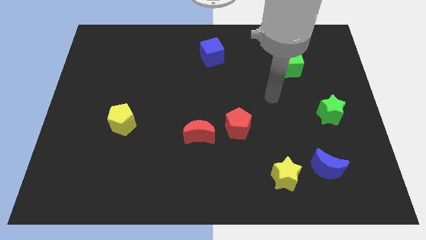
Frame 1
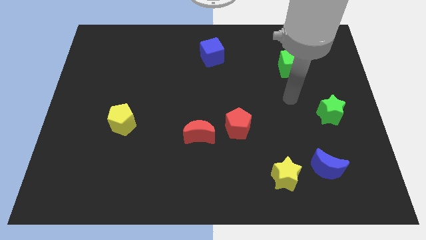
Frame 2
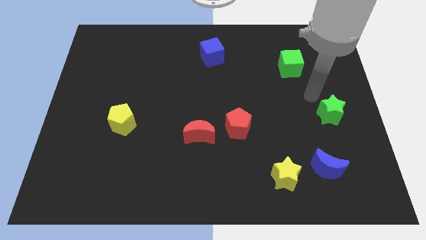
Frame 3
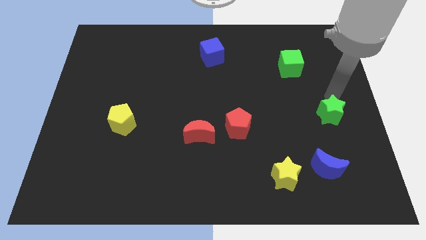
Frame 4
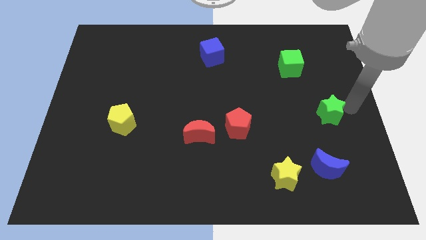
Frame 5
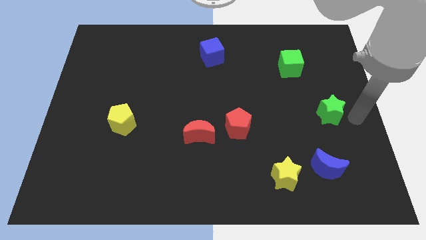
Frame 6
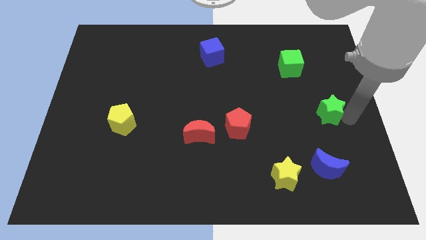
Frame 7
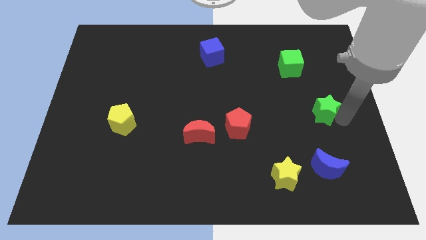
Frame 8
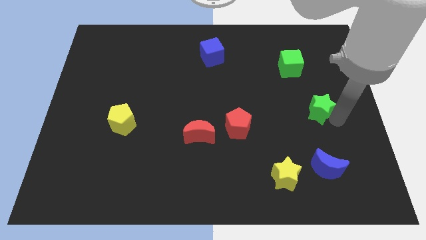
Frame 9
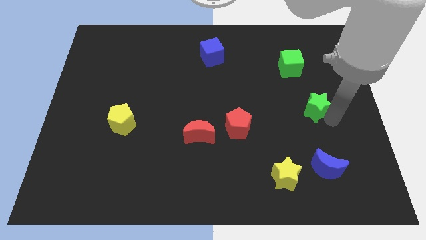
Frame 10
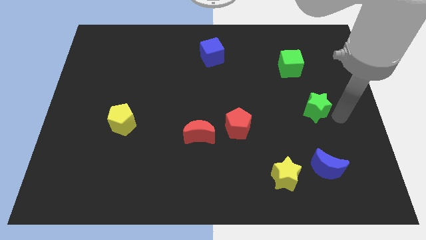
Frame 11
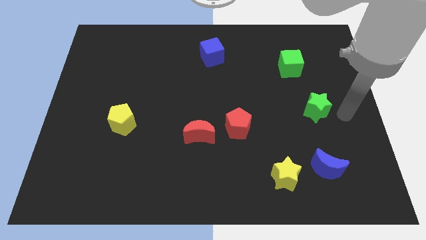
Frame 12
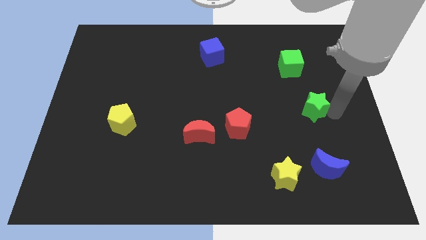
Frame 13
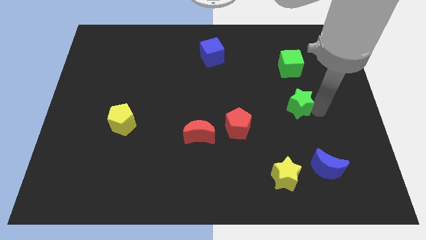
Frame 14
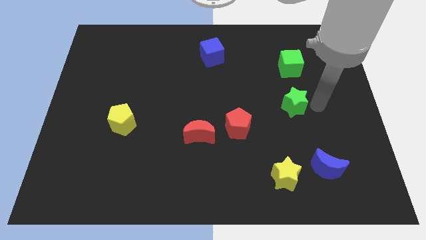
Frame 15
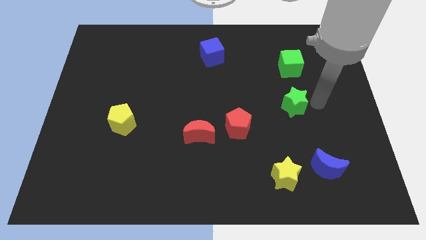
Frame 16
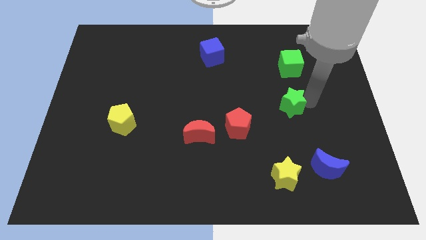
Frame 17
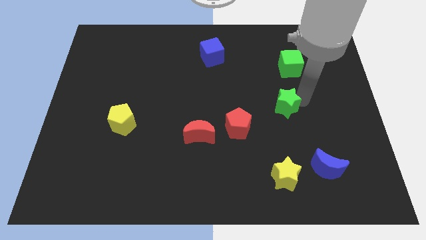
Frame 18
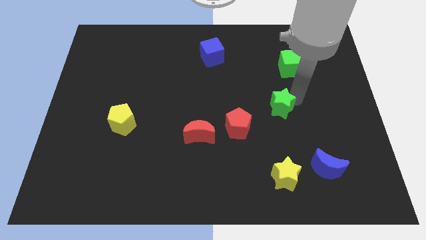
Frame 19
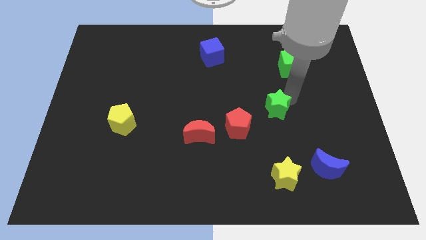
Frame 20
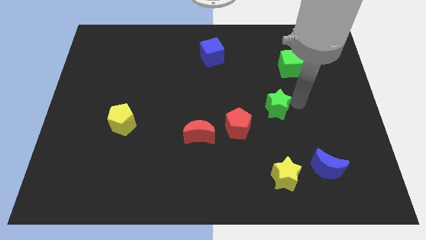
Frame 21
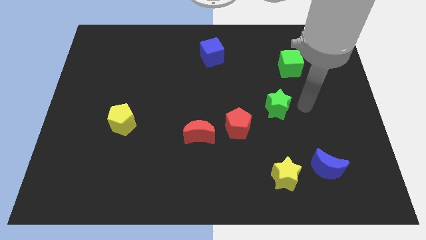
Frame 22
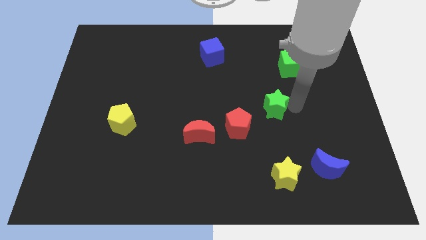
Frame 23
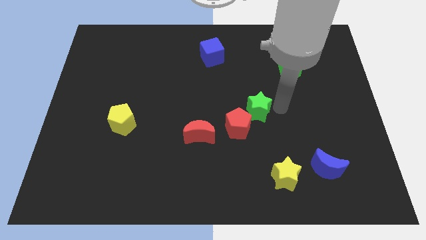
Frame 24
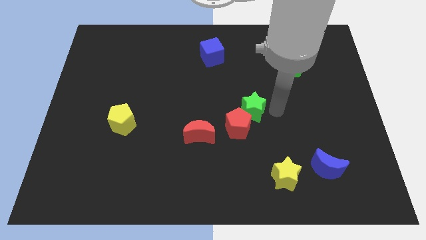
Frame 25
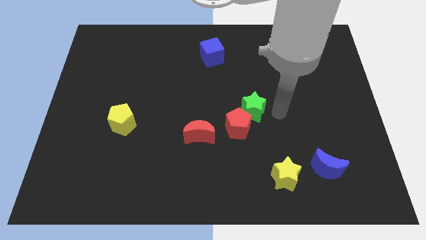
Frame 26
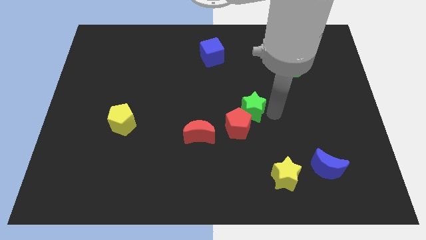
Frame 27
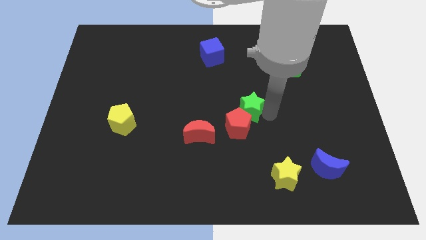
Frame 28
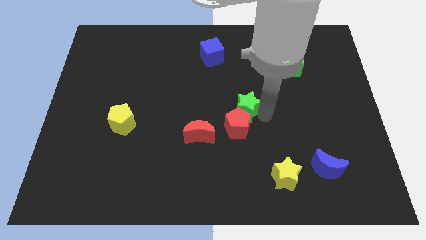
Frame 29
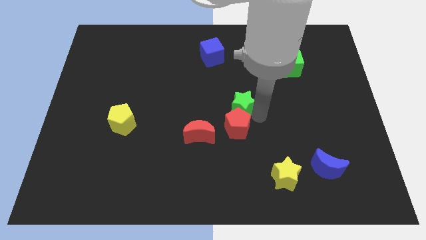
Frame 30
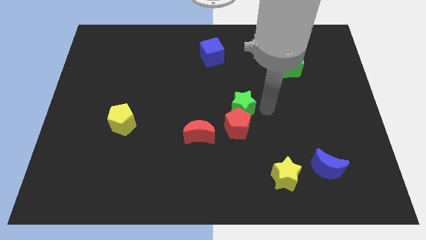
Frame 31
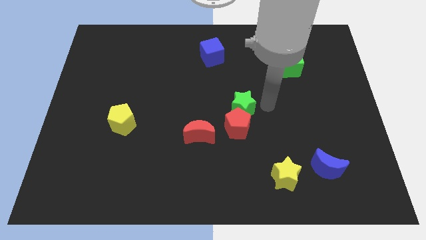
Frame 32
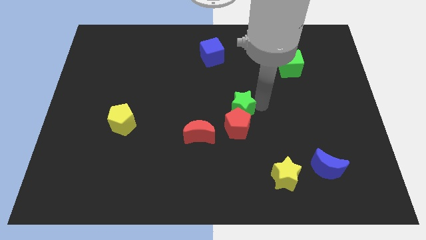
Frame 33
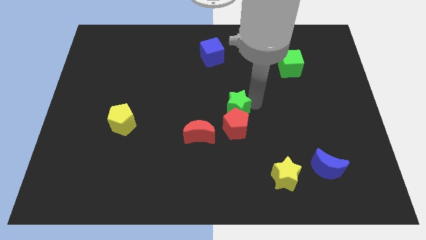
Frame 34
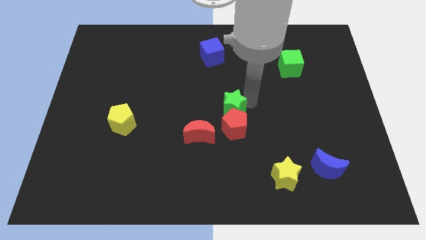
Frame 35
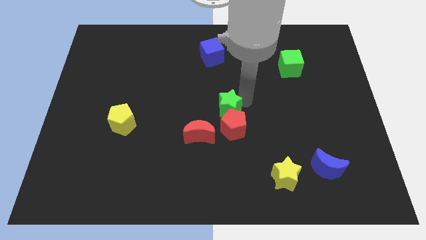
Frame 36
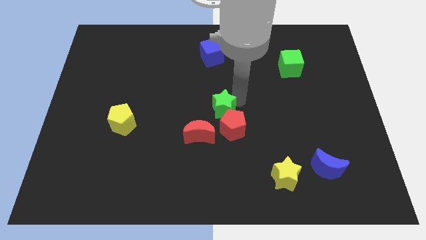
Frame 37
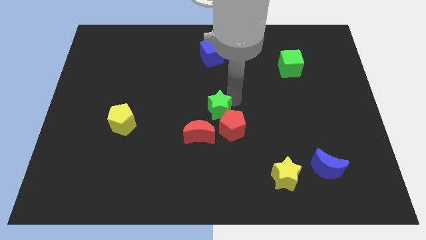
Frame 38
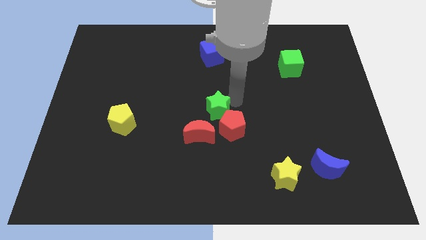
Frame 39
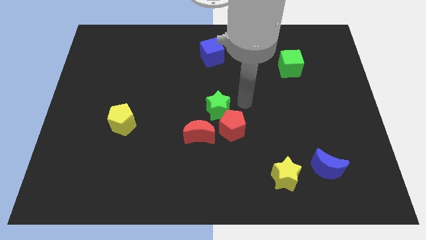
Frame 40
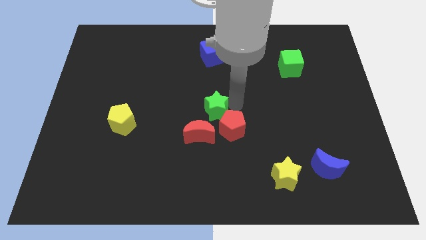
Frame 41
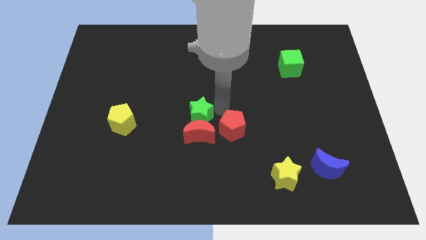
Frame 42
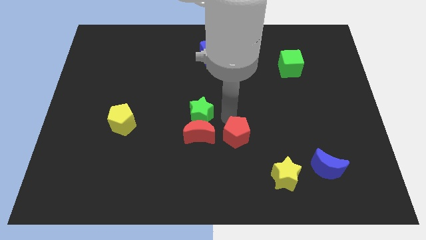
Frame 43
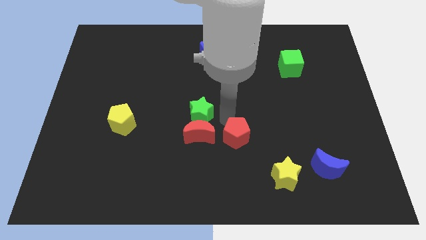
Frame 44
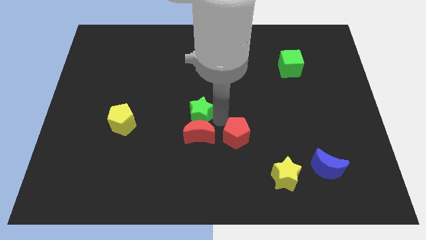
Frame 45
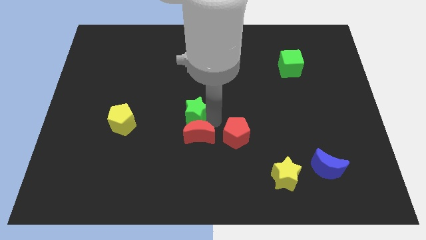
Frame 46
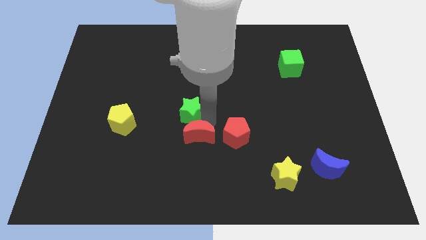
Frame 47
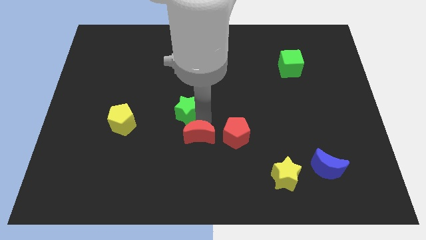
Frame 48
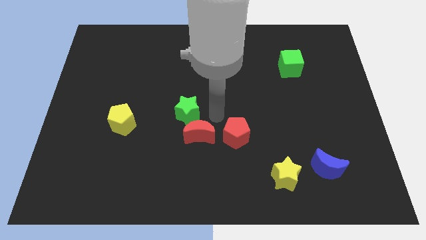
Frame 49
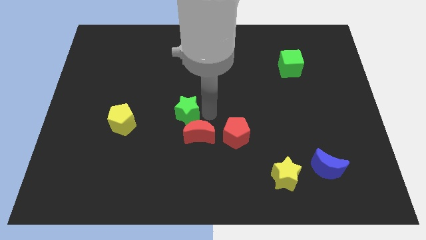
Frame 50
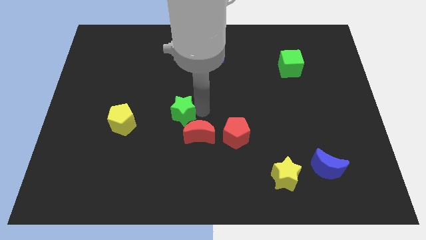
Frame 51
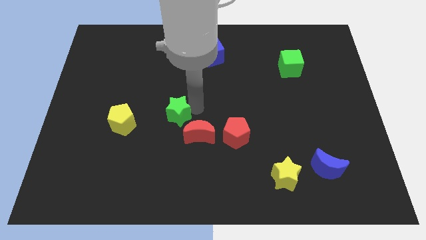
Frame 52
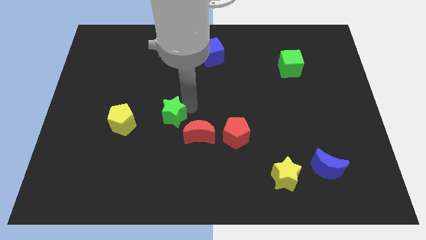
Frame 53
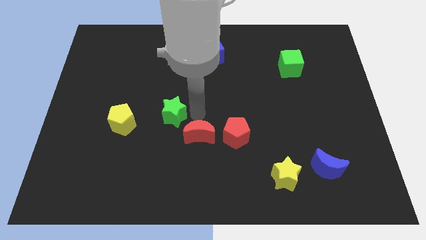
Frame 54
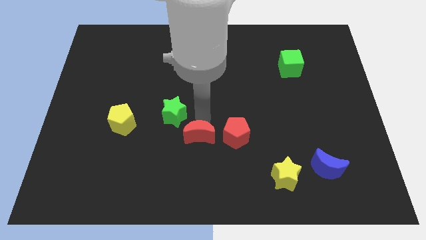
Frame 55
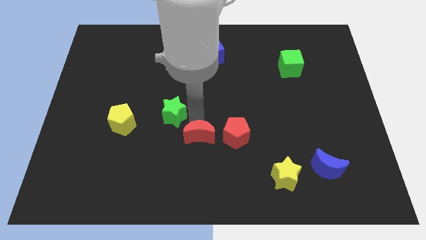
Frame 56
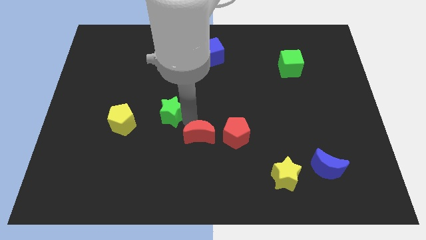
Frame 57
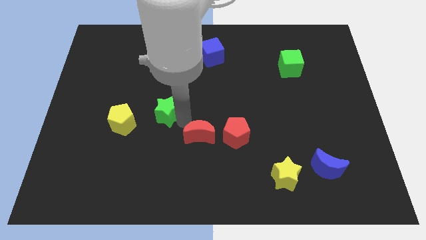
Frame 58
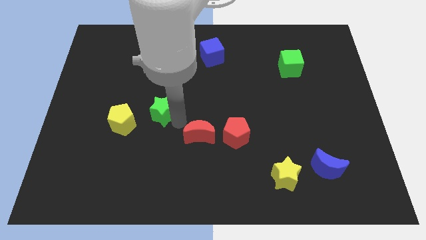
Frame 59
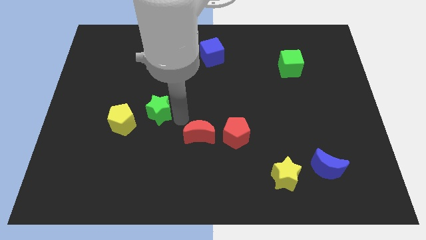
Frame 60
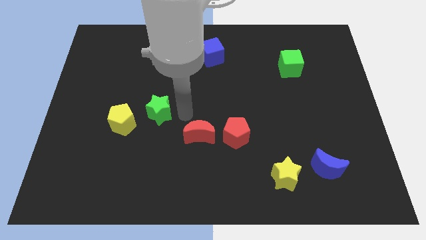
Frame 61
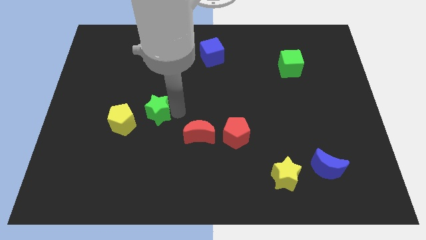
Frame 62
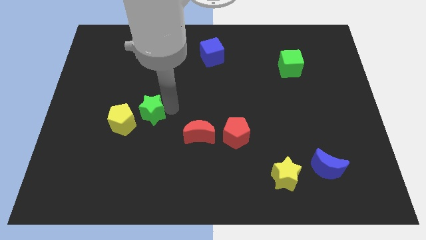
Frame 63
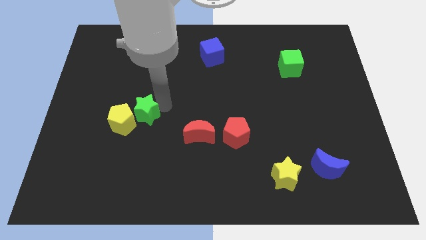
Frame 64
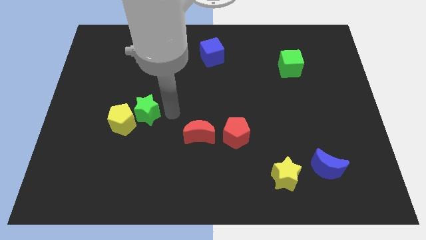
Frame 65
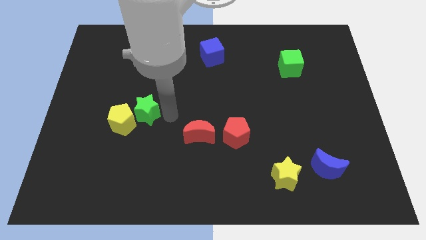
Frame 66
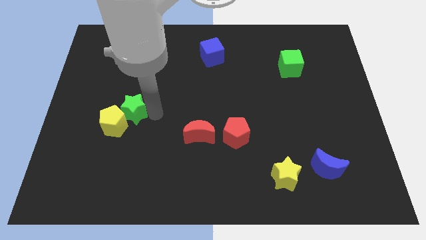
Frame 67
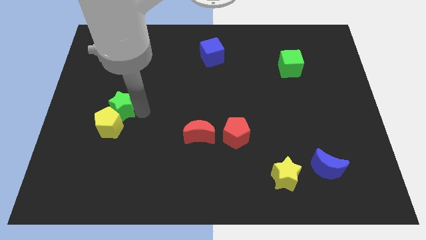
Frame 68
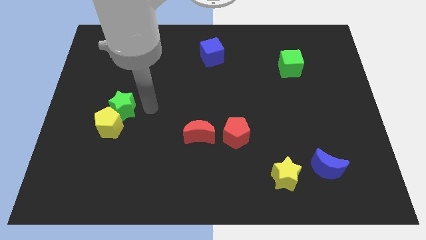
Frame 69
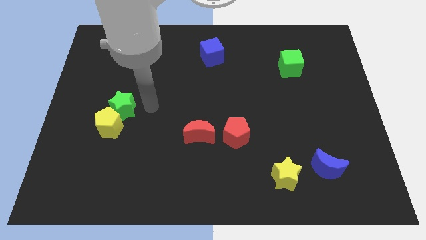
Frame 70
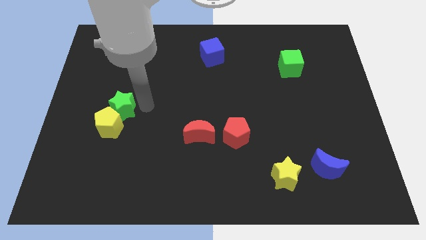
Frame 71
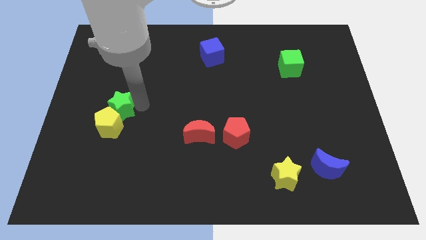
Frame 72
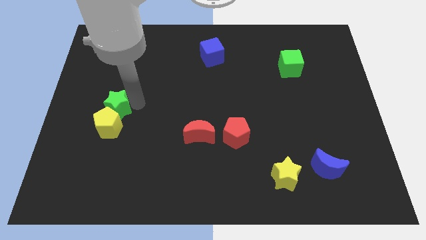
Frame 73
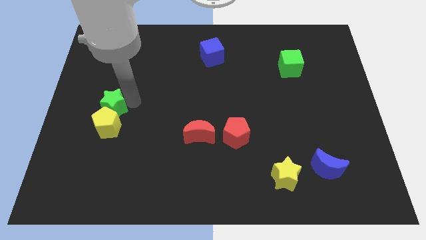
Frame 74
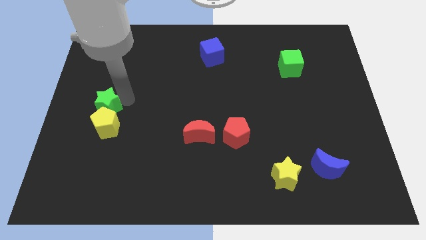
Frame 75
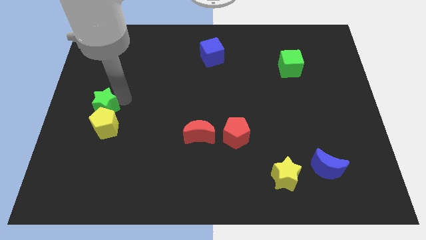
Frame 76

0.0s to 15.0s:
slide the green star to the left side
